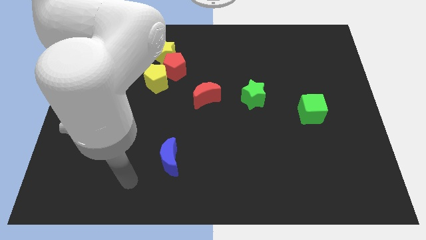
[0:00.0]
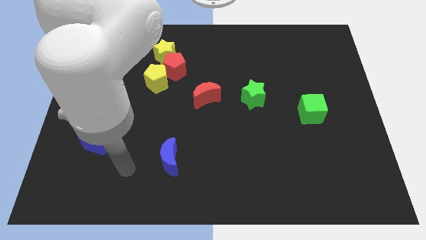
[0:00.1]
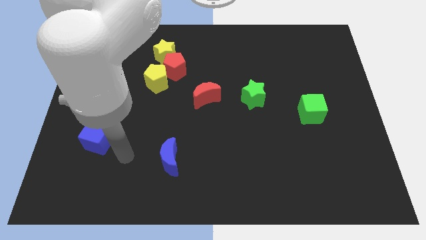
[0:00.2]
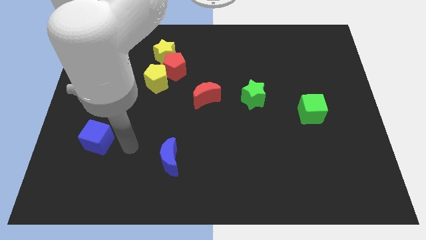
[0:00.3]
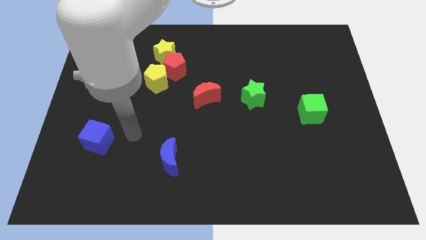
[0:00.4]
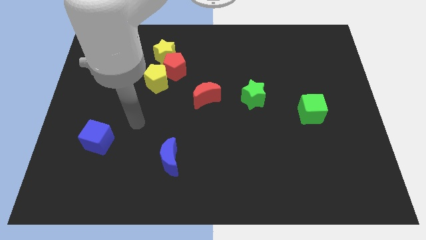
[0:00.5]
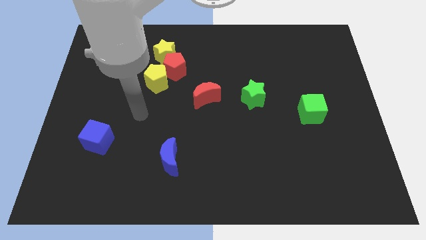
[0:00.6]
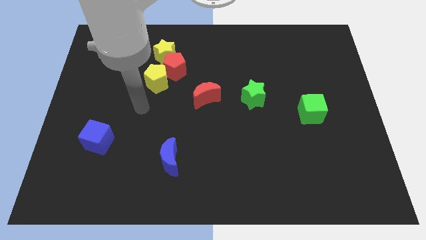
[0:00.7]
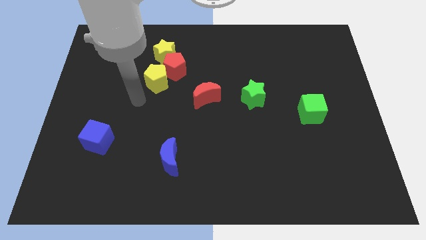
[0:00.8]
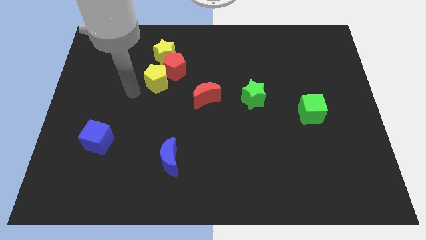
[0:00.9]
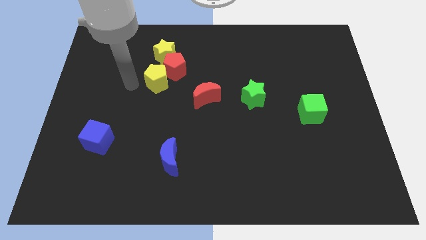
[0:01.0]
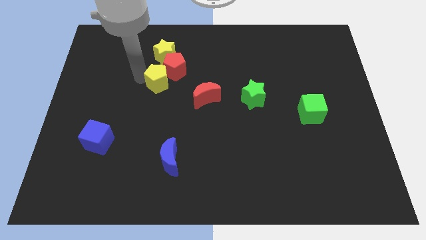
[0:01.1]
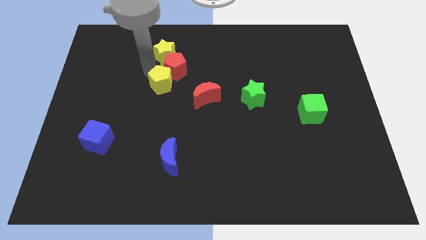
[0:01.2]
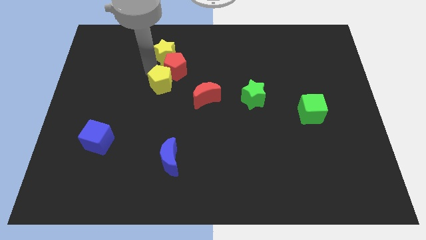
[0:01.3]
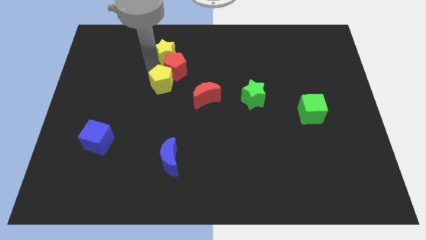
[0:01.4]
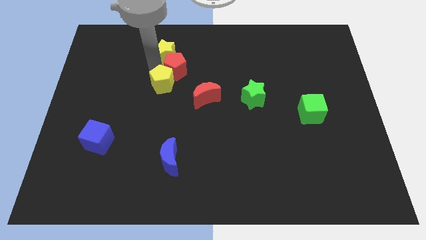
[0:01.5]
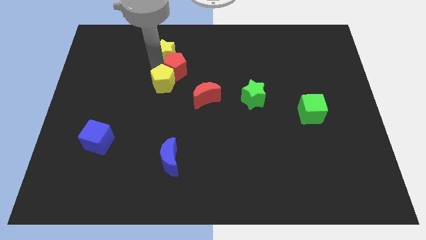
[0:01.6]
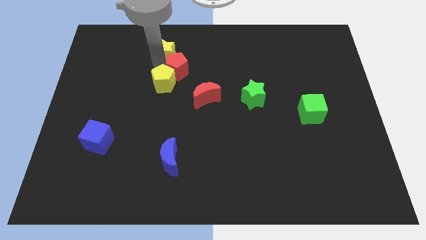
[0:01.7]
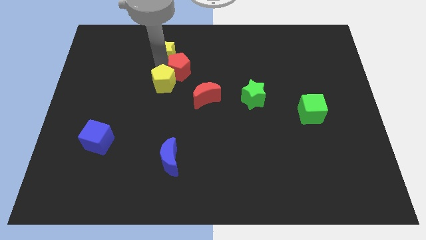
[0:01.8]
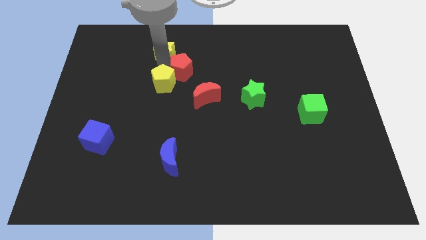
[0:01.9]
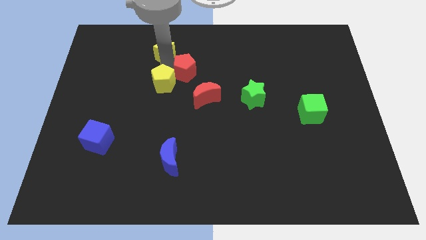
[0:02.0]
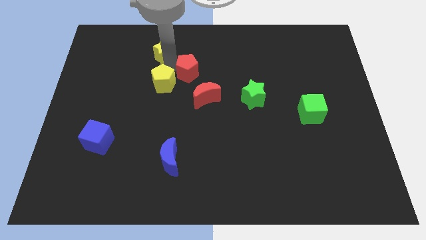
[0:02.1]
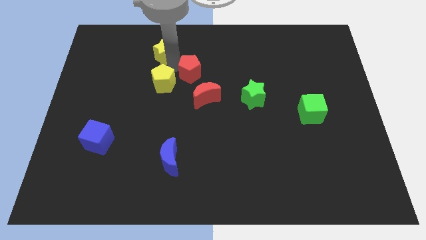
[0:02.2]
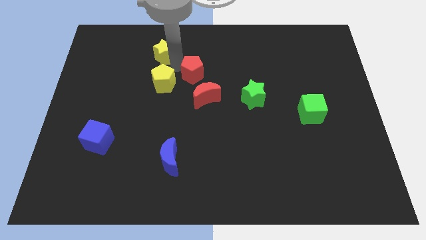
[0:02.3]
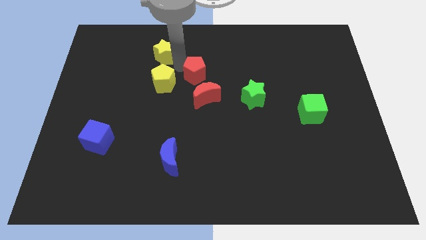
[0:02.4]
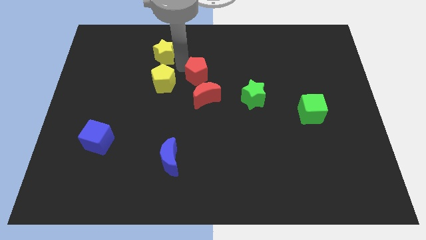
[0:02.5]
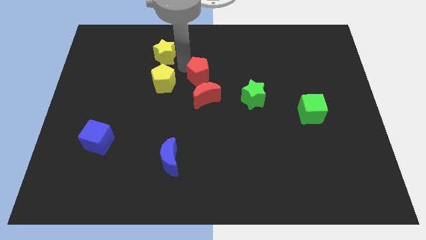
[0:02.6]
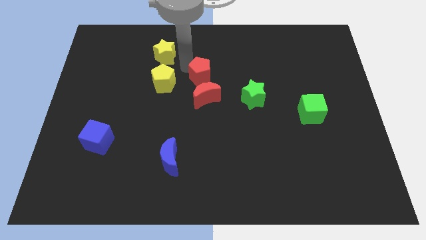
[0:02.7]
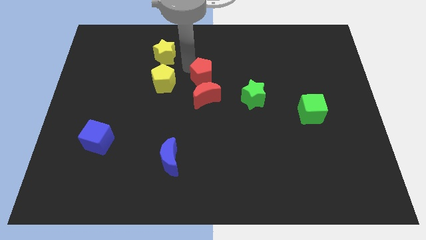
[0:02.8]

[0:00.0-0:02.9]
move the red pentagon away from the yellow star and yellow pentagon

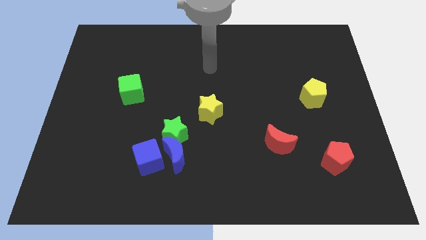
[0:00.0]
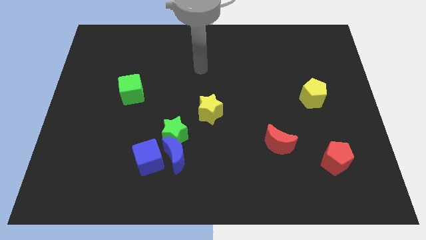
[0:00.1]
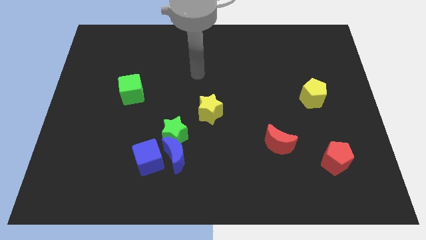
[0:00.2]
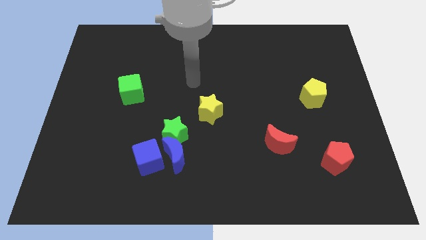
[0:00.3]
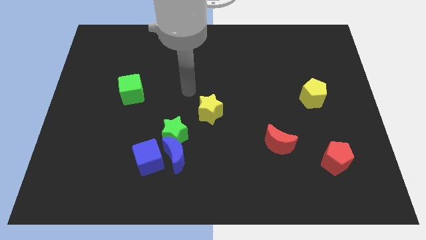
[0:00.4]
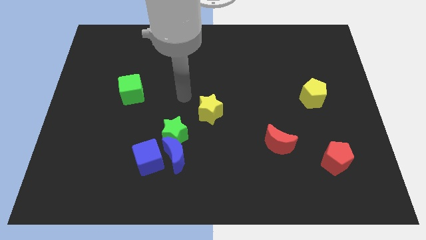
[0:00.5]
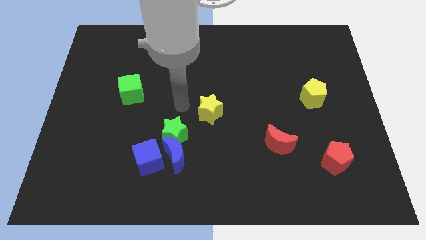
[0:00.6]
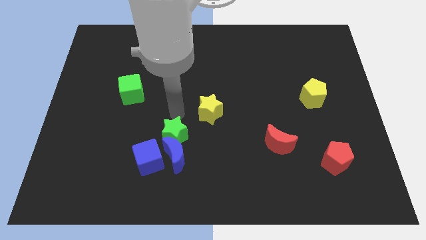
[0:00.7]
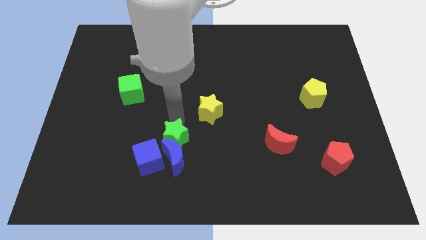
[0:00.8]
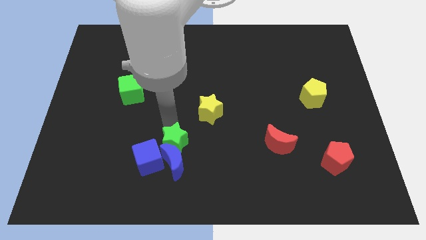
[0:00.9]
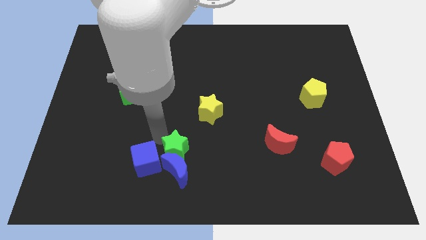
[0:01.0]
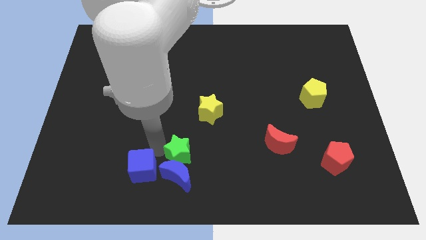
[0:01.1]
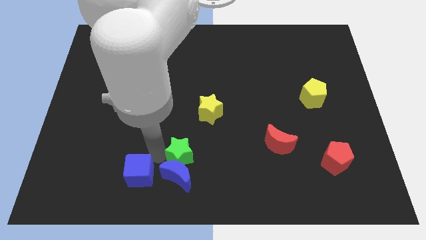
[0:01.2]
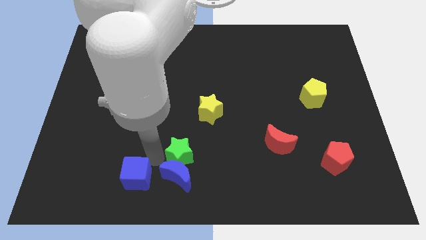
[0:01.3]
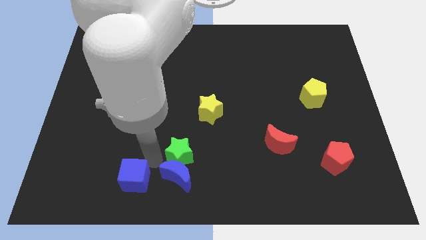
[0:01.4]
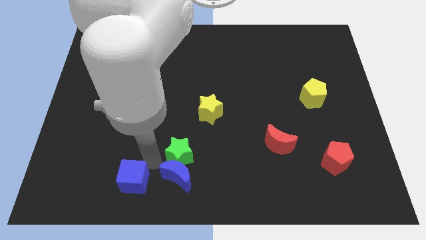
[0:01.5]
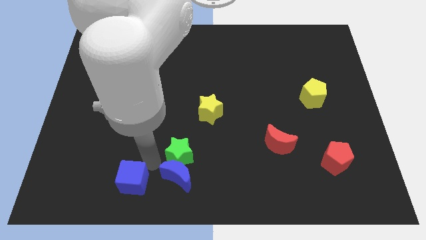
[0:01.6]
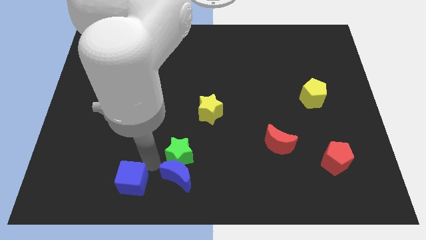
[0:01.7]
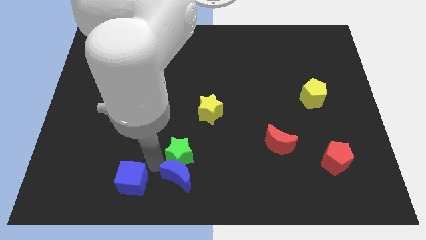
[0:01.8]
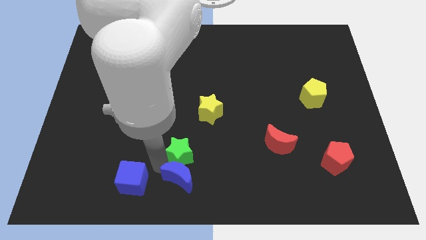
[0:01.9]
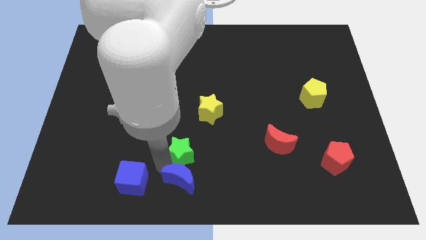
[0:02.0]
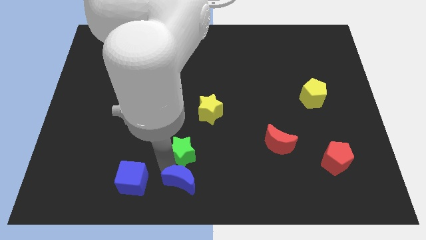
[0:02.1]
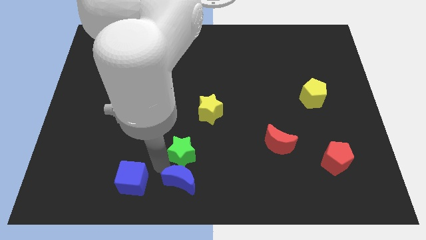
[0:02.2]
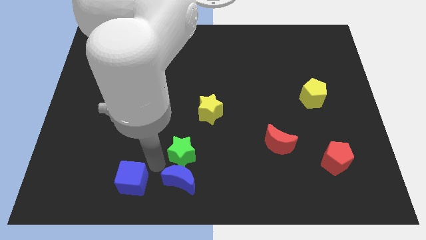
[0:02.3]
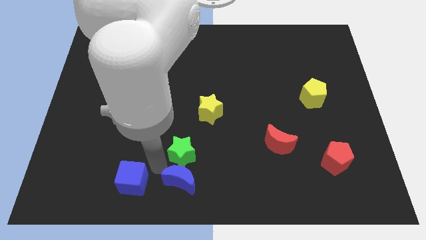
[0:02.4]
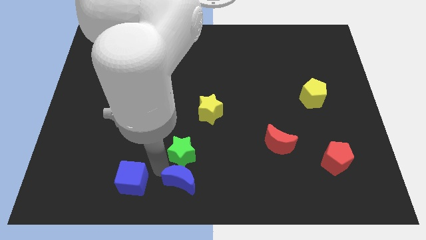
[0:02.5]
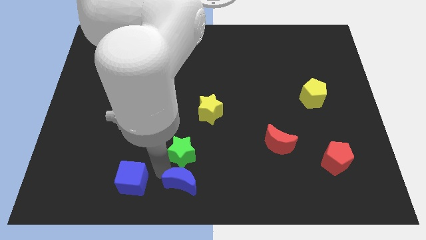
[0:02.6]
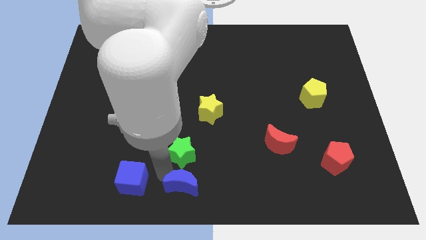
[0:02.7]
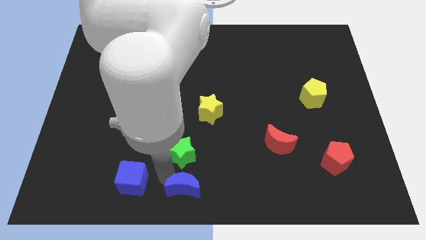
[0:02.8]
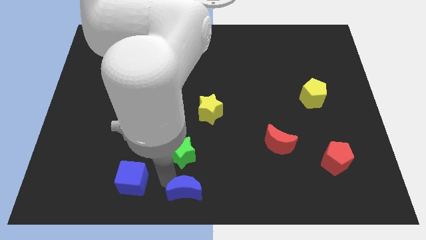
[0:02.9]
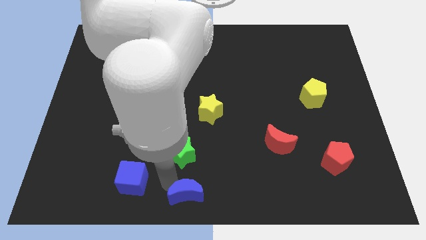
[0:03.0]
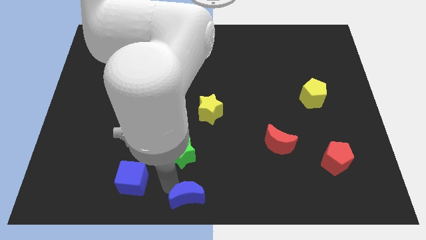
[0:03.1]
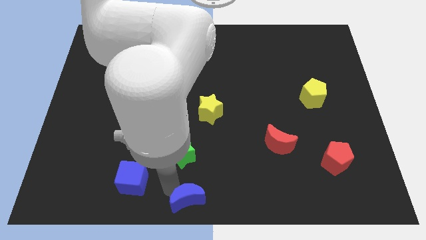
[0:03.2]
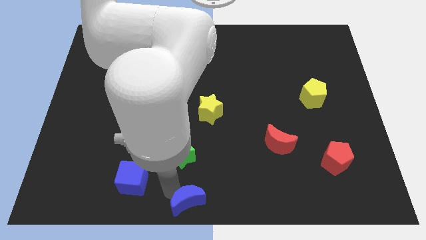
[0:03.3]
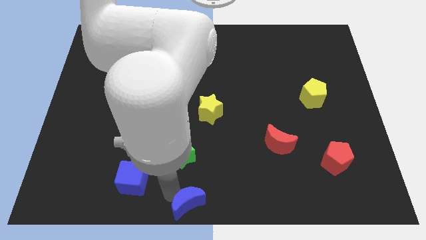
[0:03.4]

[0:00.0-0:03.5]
move the blue moon away from the green star and blue cube

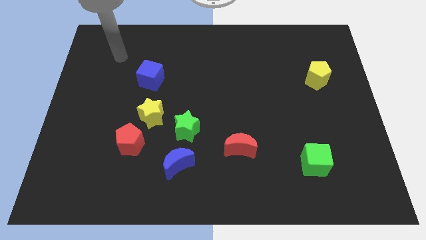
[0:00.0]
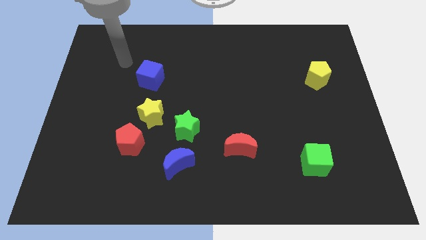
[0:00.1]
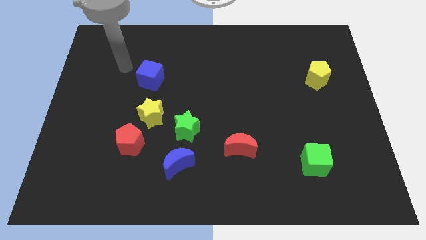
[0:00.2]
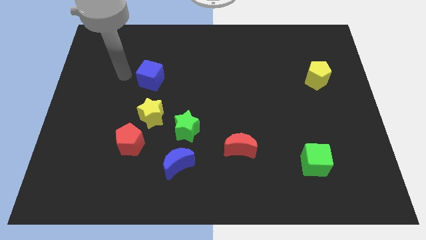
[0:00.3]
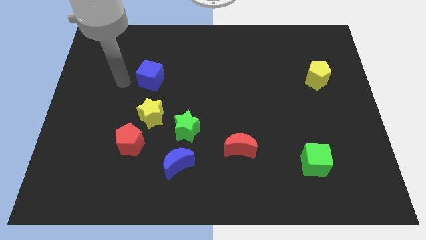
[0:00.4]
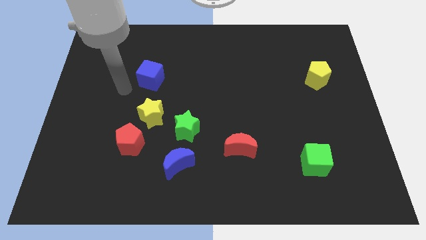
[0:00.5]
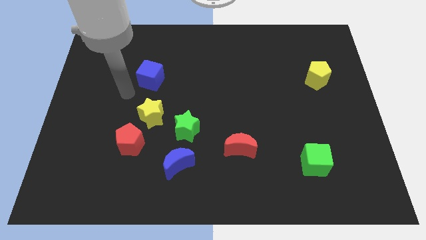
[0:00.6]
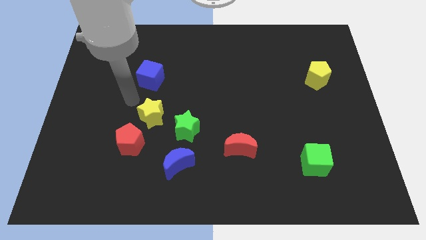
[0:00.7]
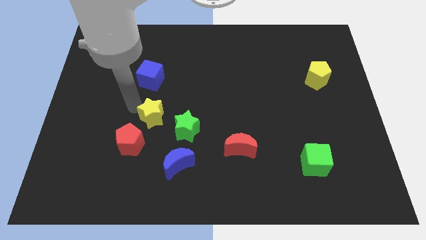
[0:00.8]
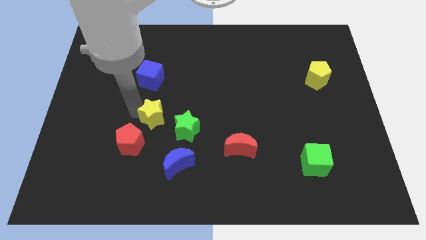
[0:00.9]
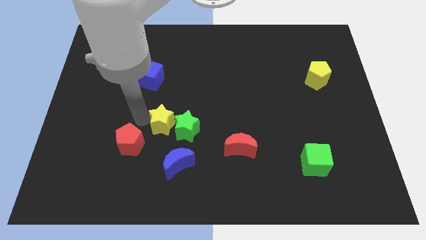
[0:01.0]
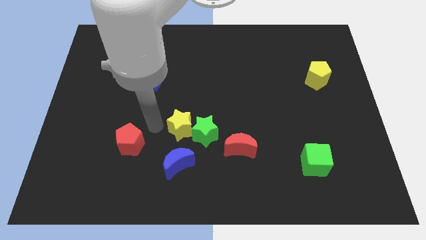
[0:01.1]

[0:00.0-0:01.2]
pull the red pentagon apart from the yellow star

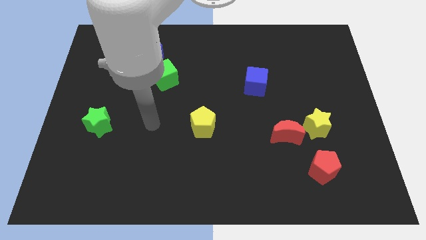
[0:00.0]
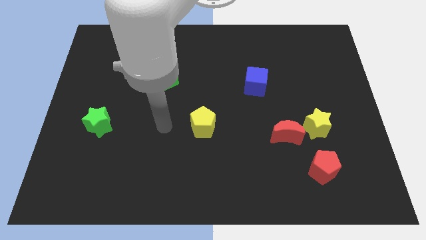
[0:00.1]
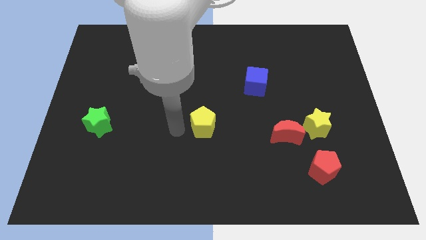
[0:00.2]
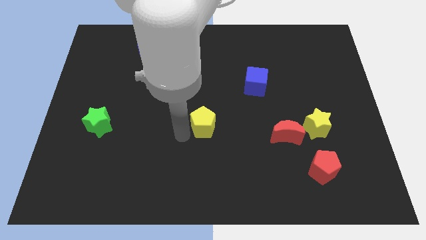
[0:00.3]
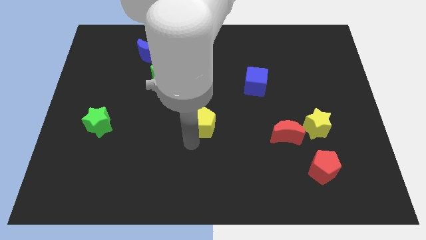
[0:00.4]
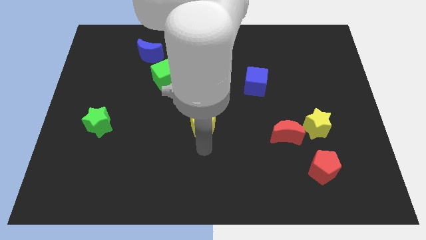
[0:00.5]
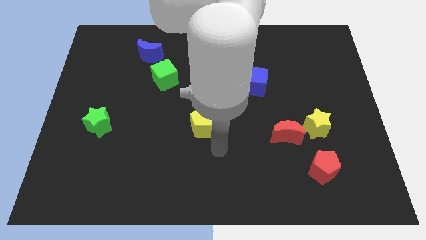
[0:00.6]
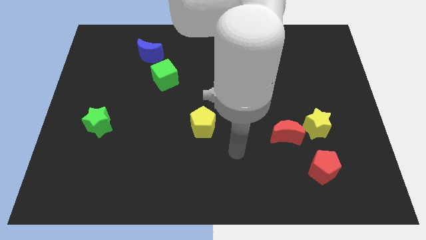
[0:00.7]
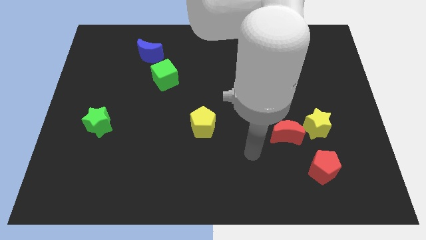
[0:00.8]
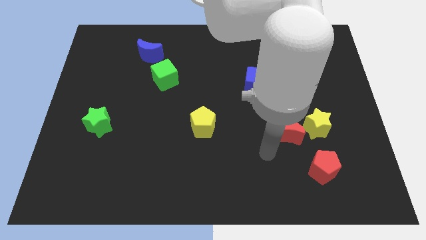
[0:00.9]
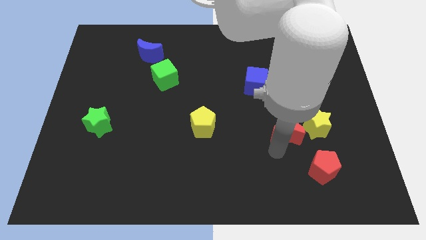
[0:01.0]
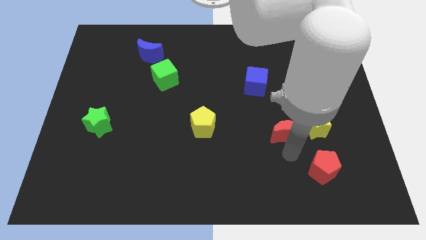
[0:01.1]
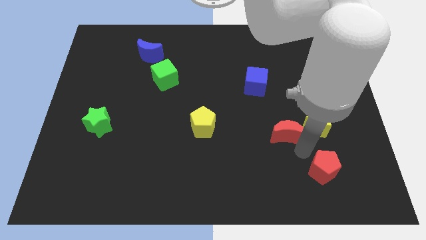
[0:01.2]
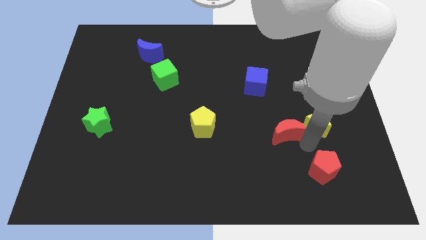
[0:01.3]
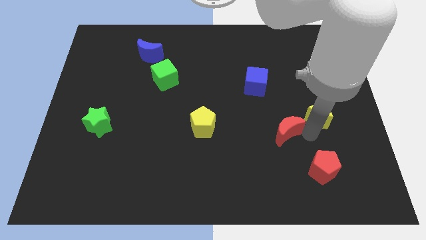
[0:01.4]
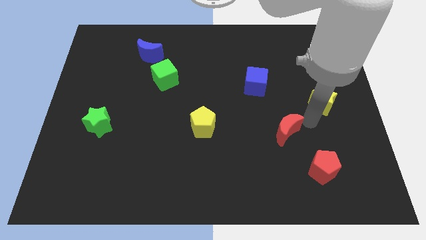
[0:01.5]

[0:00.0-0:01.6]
separate the red moon from the yellow star

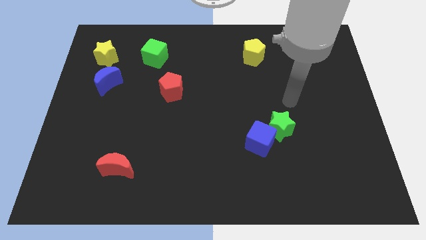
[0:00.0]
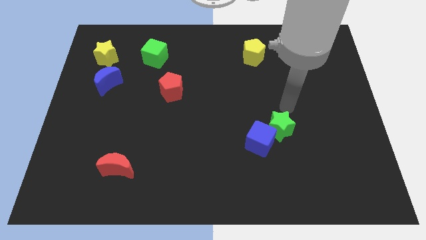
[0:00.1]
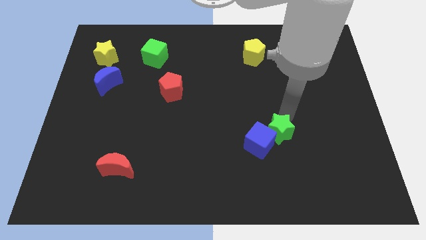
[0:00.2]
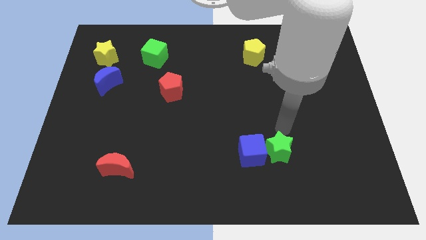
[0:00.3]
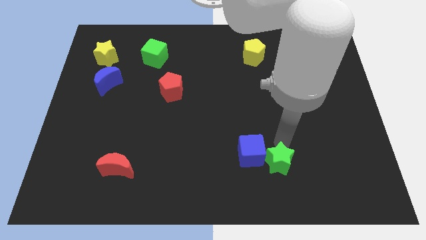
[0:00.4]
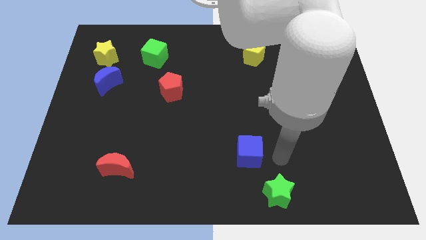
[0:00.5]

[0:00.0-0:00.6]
pull the blue cube apart from the green star
